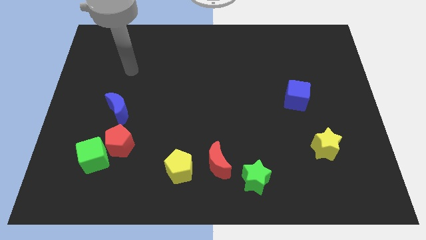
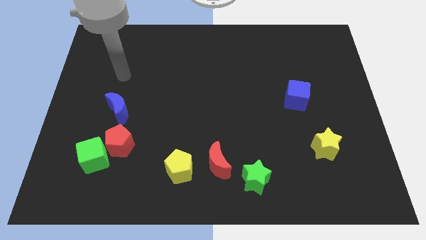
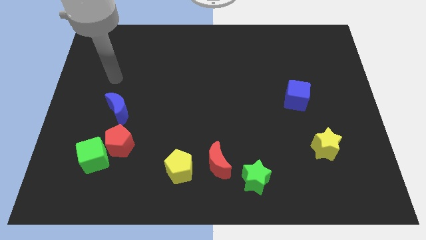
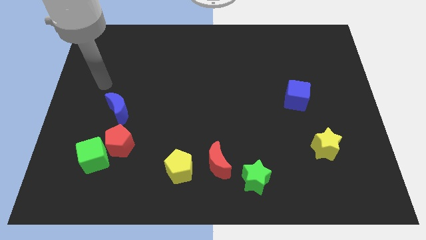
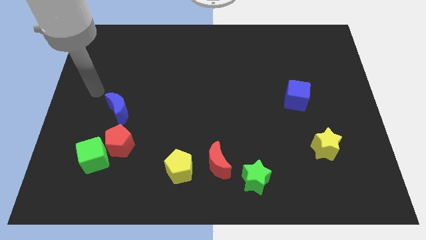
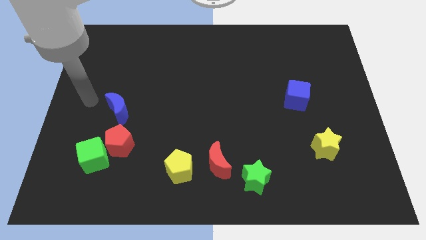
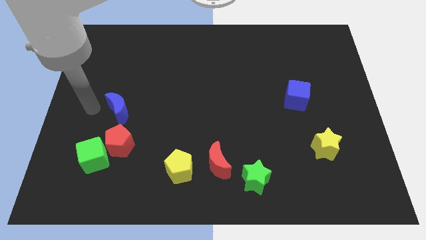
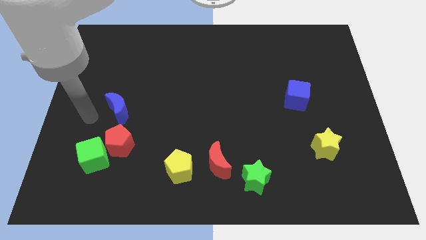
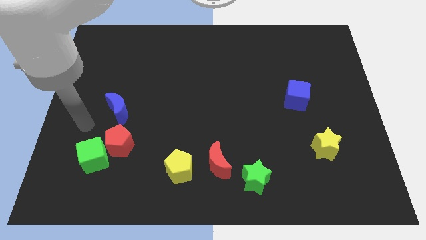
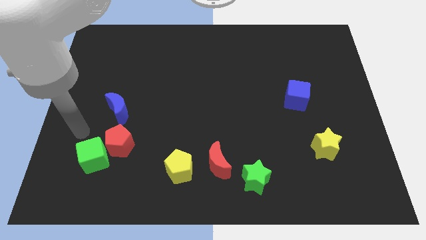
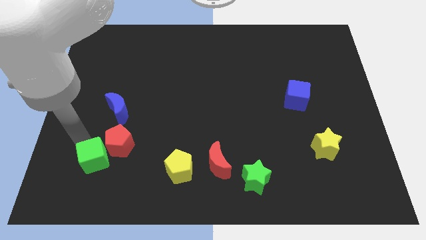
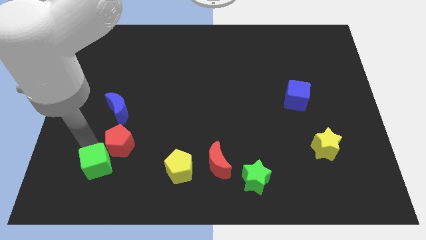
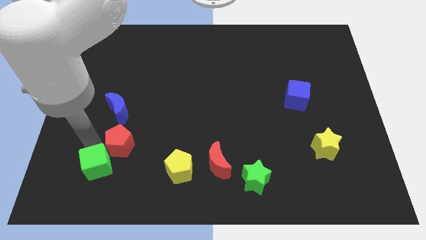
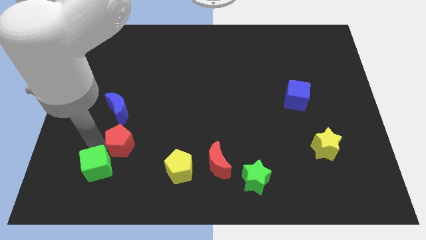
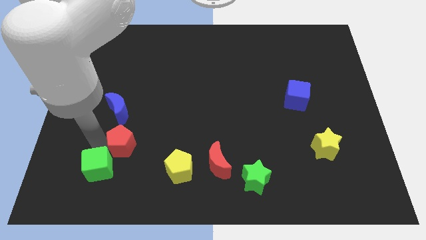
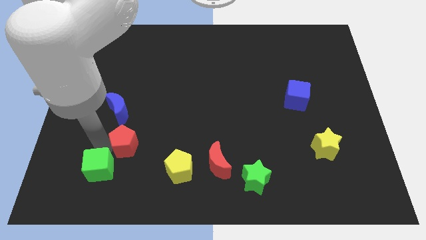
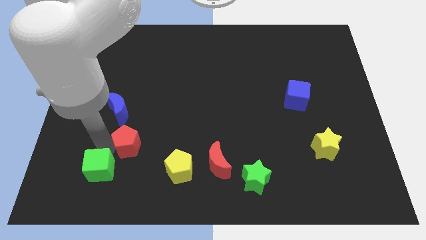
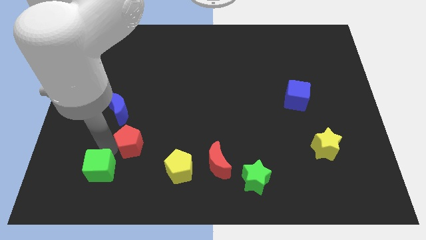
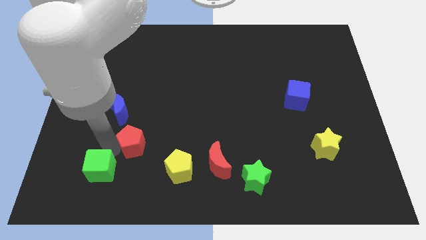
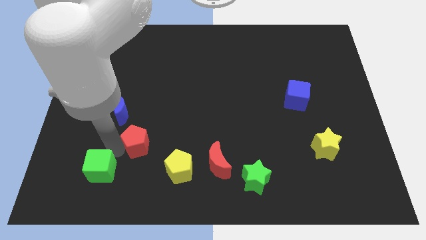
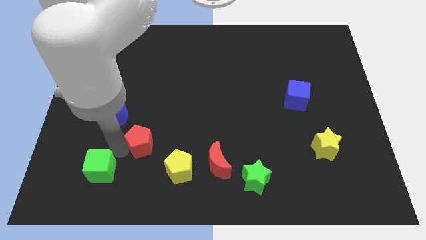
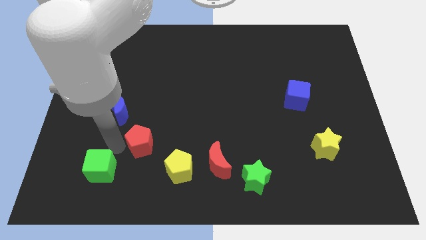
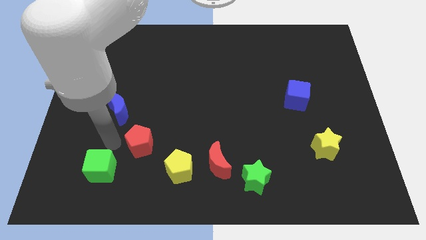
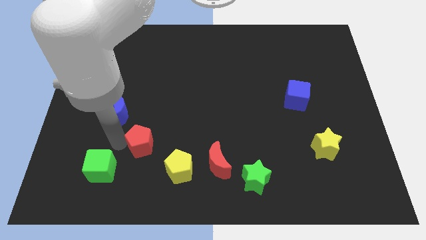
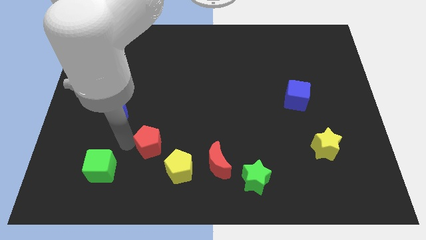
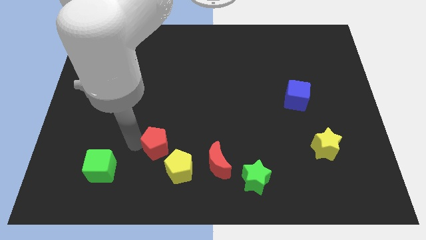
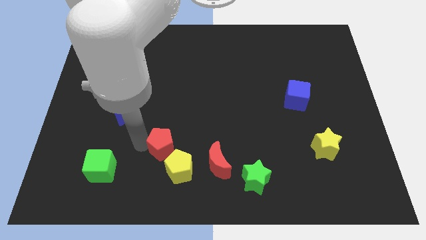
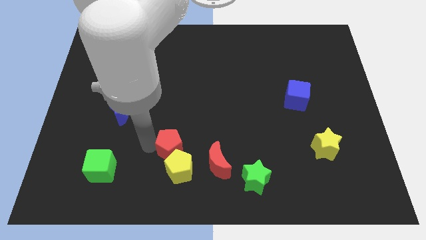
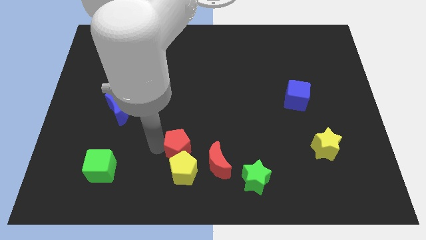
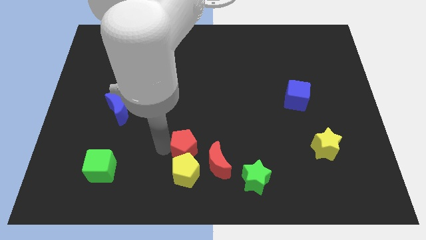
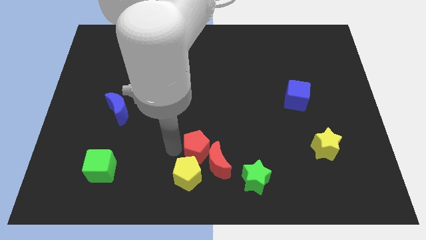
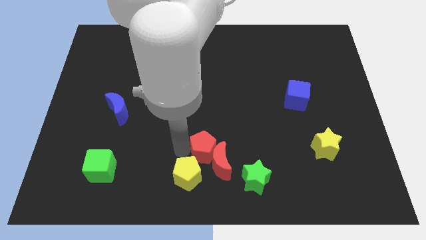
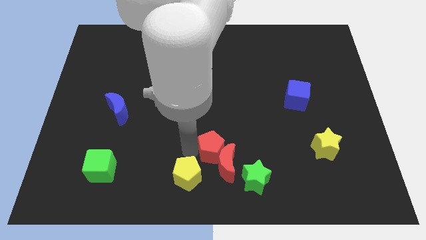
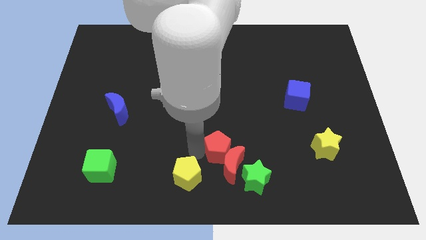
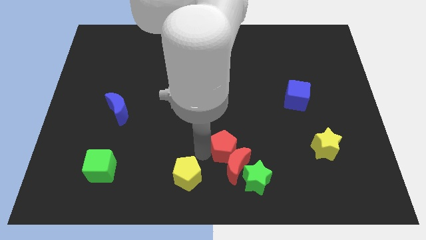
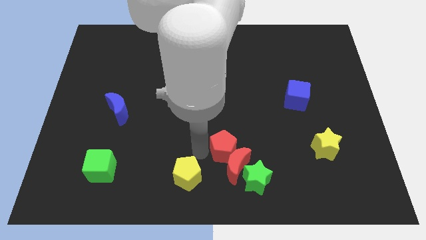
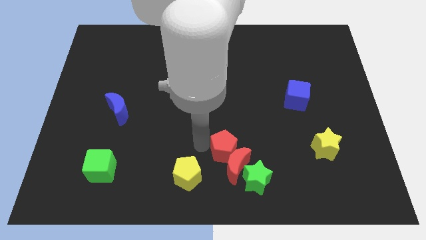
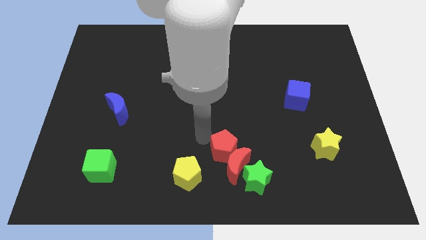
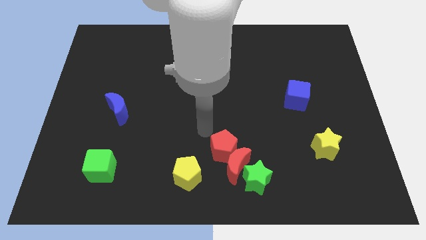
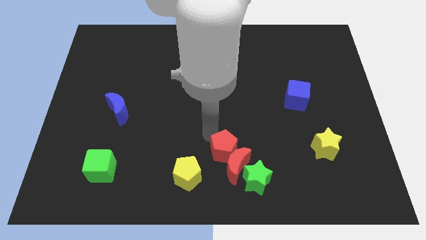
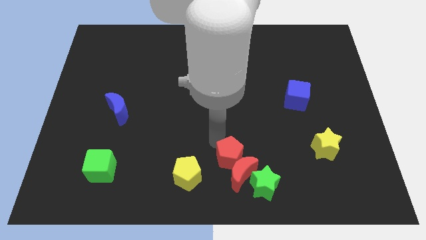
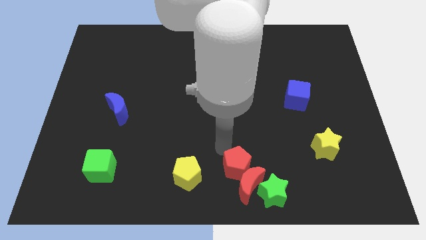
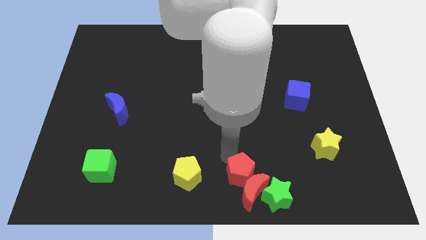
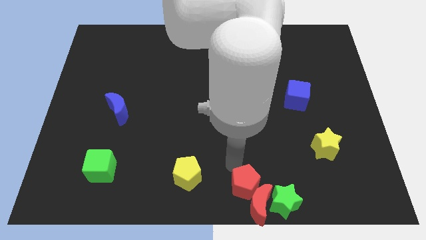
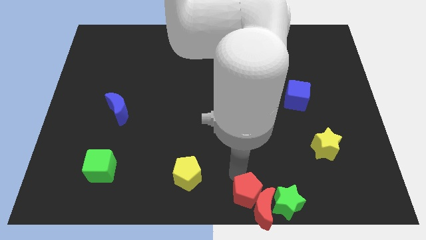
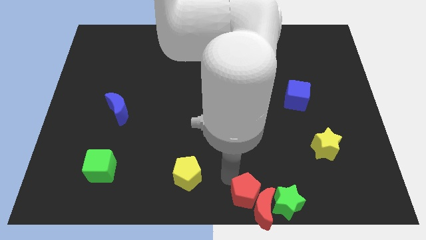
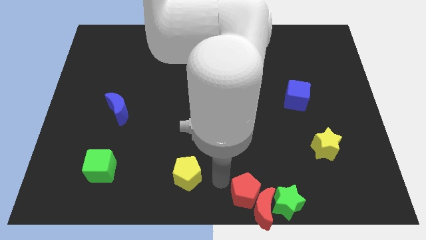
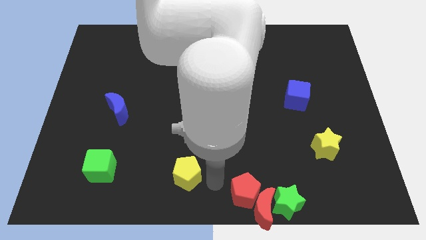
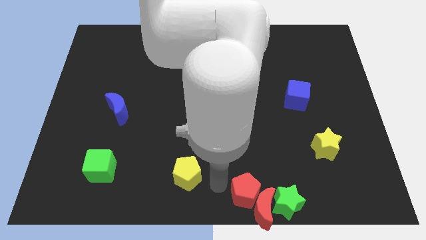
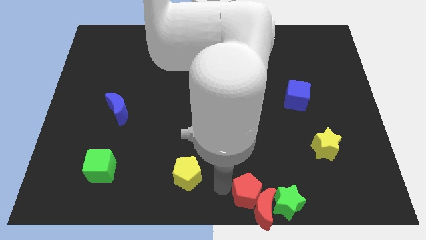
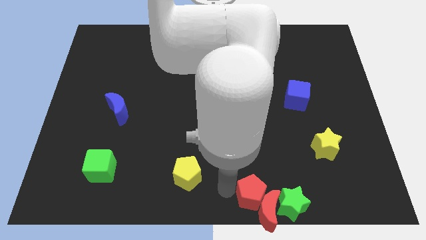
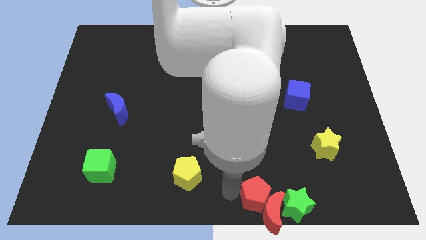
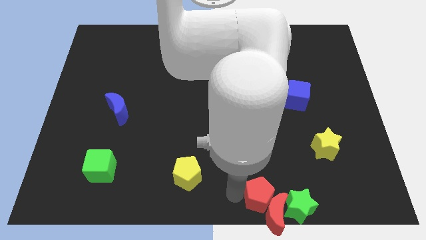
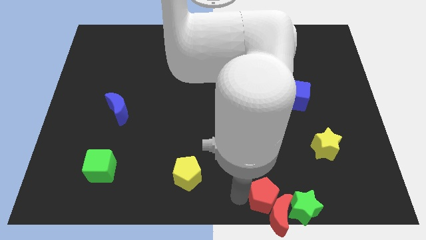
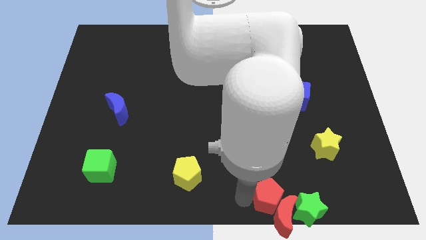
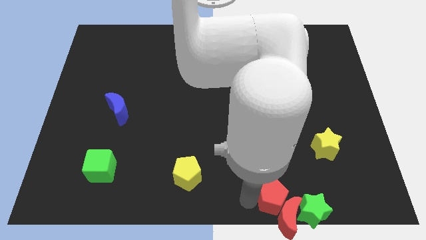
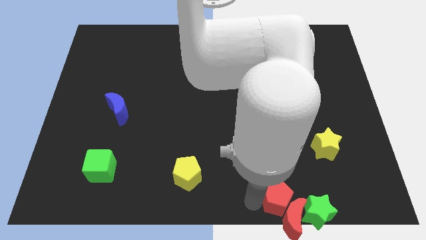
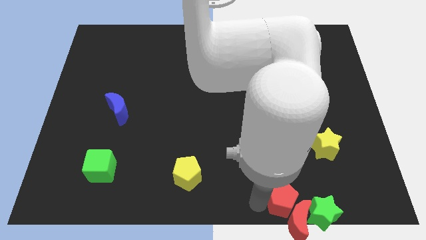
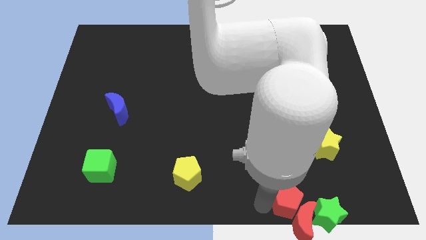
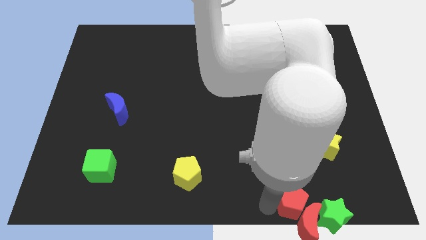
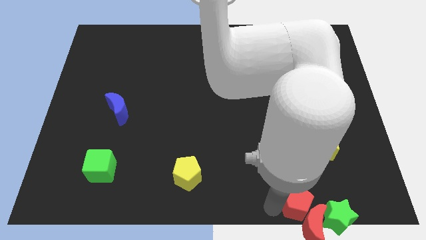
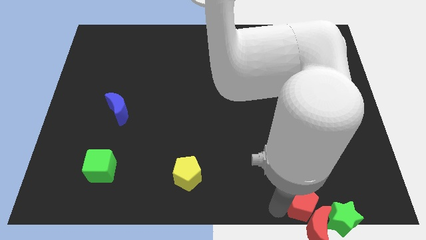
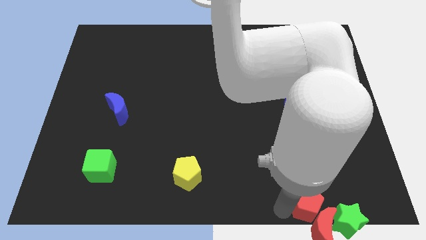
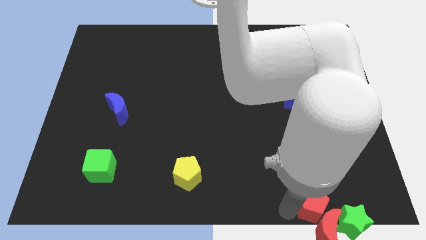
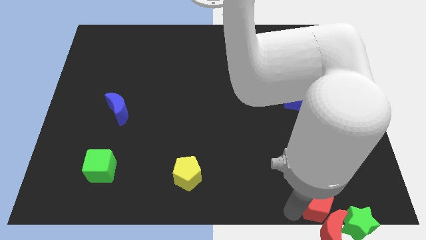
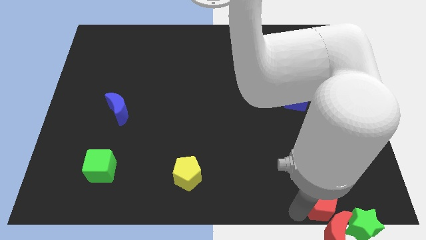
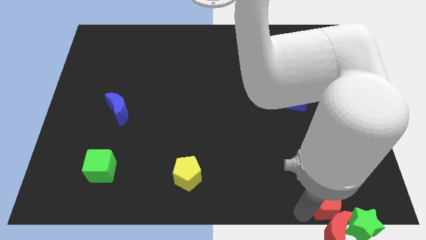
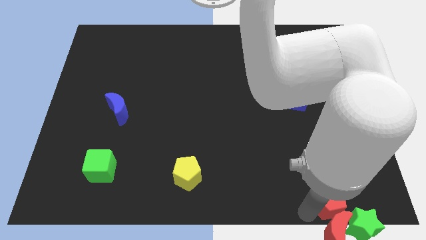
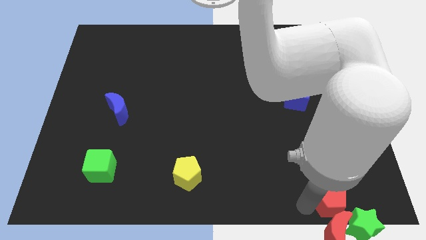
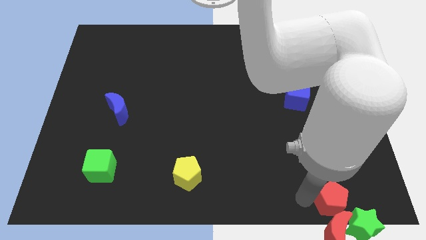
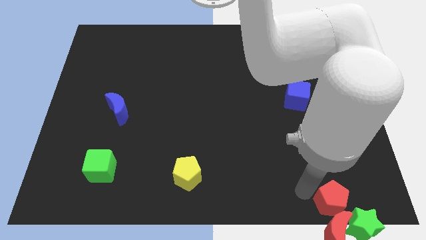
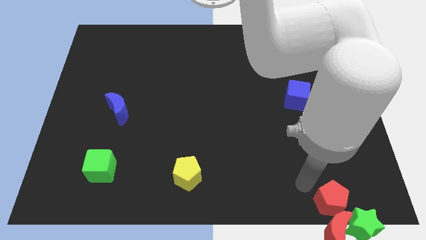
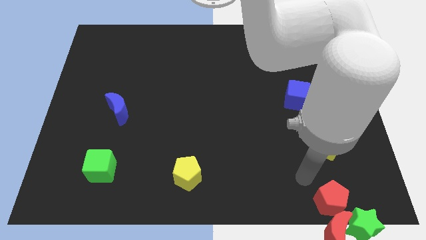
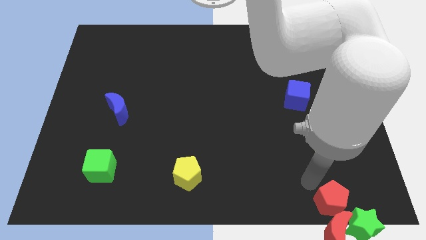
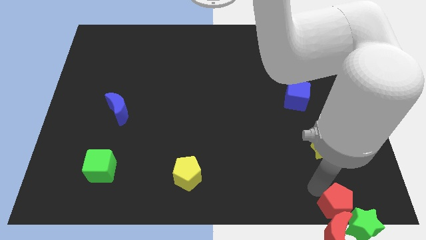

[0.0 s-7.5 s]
push the red pentagon next to the green star
